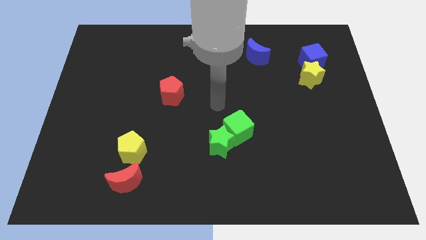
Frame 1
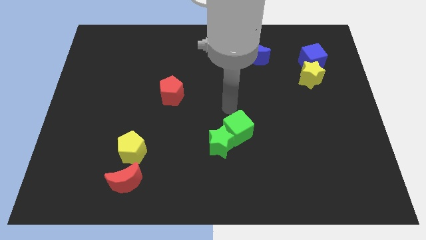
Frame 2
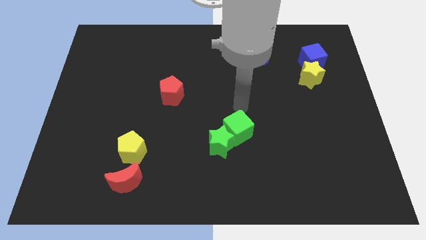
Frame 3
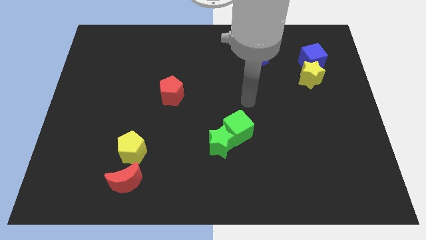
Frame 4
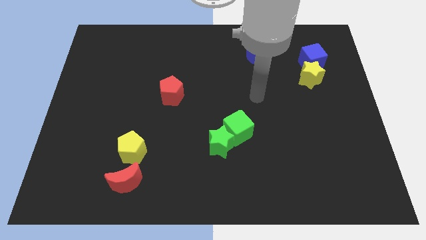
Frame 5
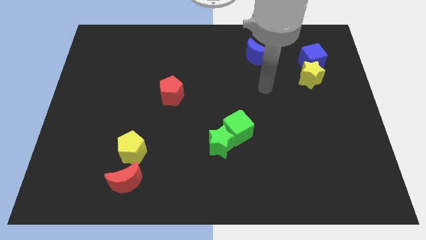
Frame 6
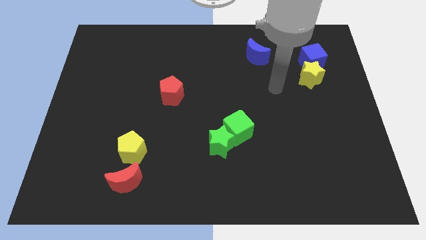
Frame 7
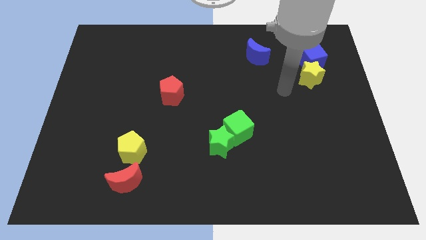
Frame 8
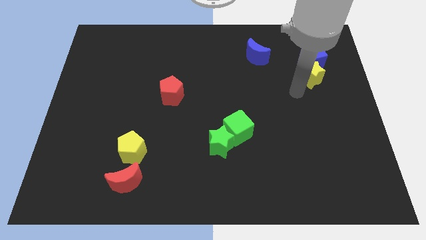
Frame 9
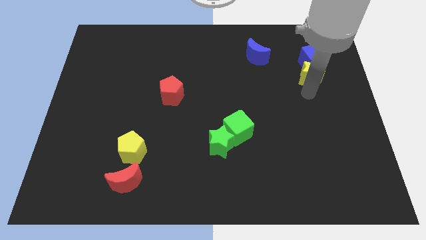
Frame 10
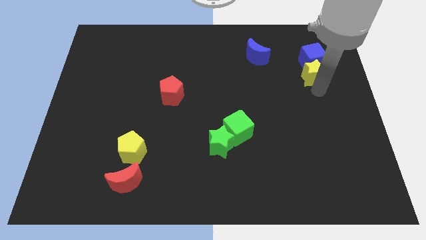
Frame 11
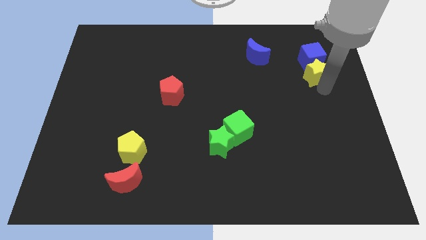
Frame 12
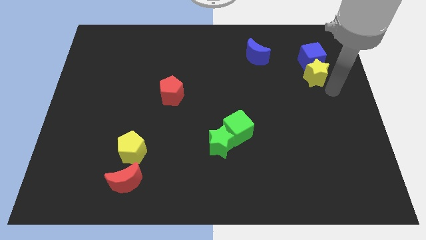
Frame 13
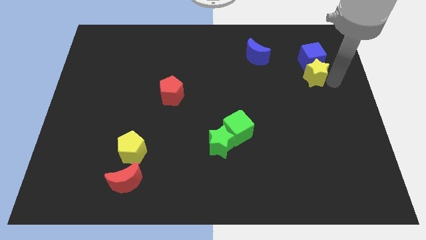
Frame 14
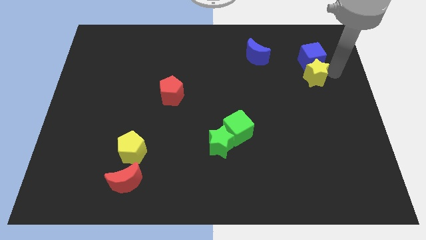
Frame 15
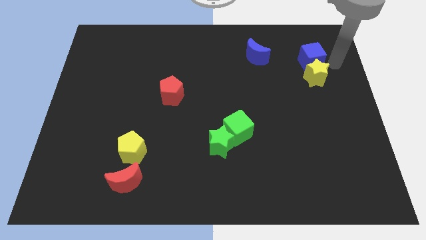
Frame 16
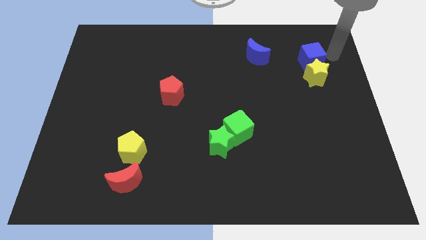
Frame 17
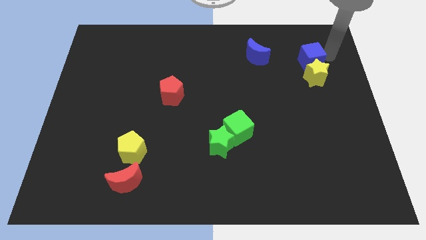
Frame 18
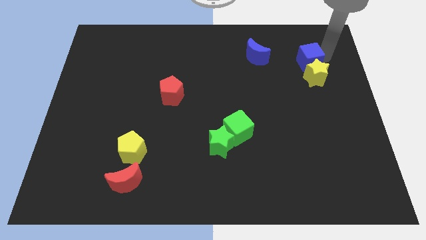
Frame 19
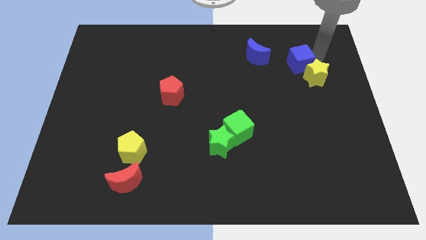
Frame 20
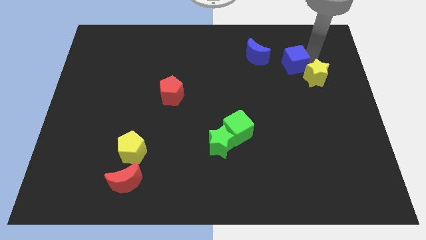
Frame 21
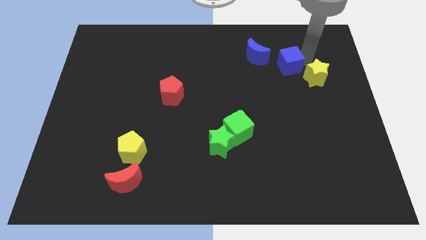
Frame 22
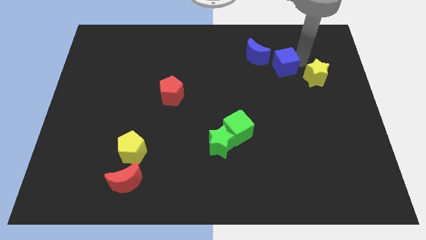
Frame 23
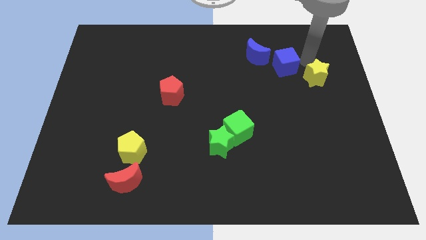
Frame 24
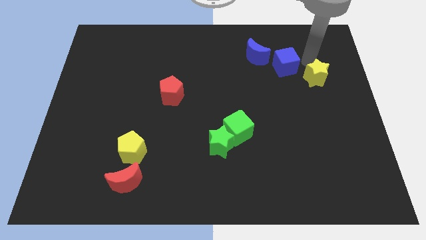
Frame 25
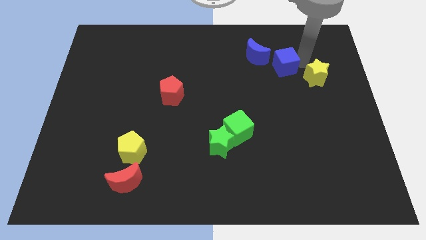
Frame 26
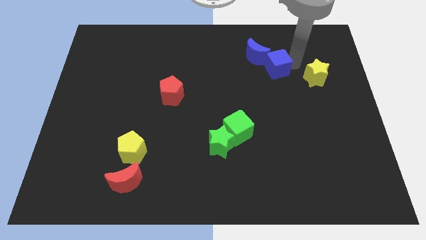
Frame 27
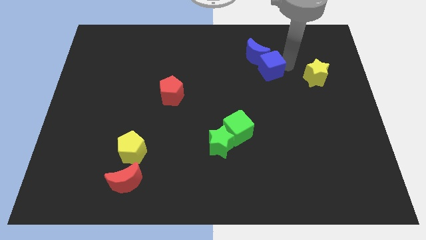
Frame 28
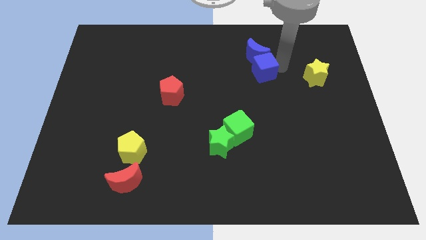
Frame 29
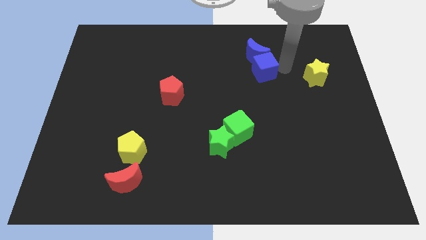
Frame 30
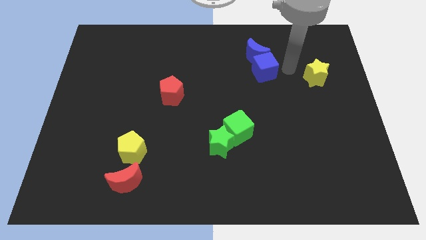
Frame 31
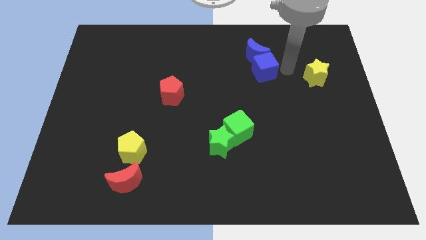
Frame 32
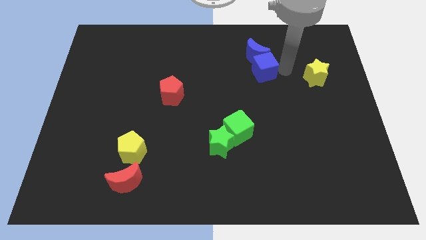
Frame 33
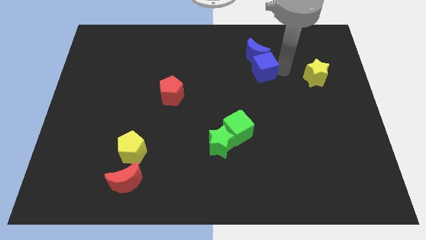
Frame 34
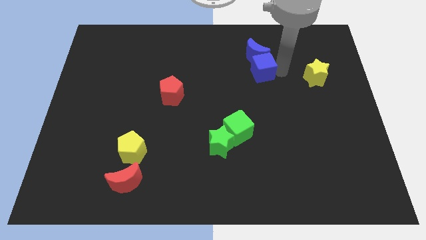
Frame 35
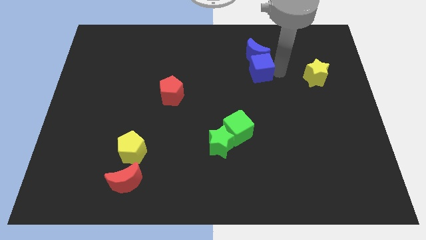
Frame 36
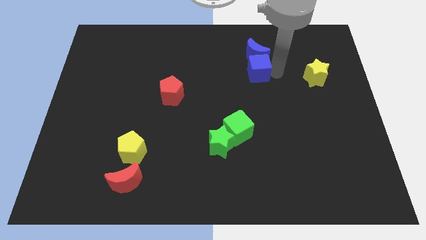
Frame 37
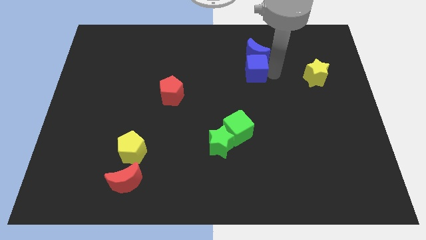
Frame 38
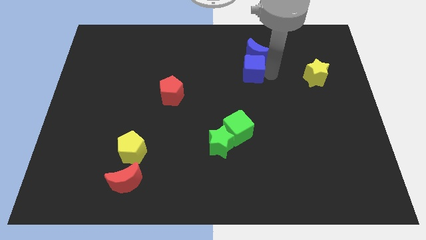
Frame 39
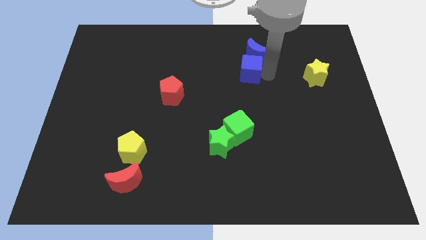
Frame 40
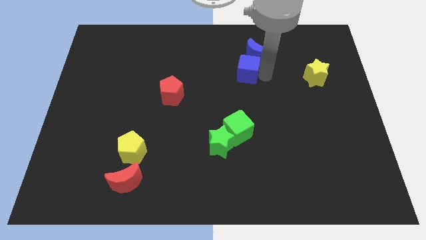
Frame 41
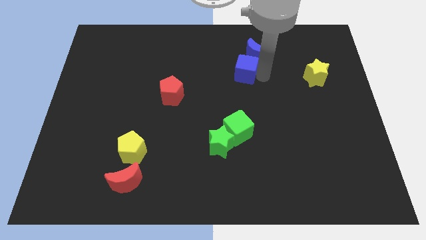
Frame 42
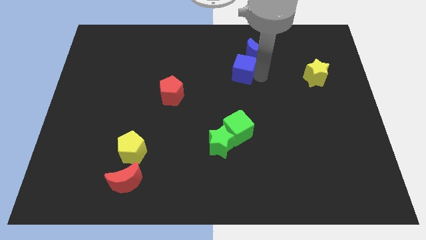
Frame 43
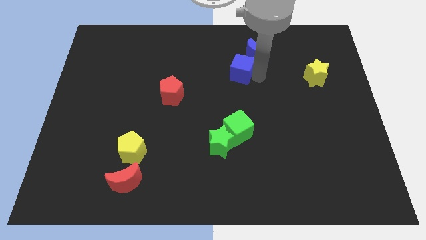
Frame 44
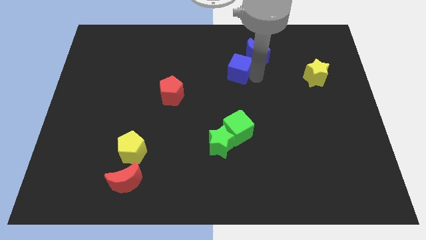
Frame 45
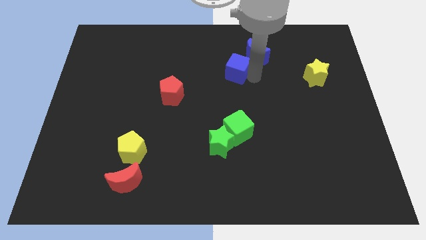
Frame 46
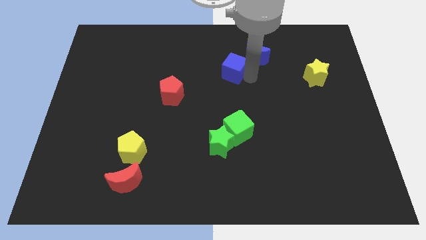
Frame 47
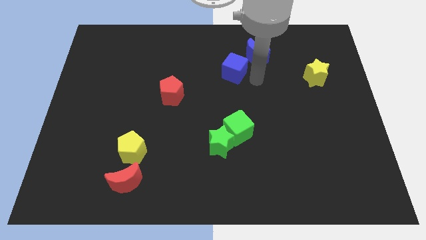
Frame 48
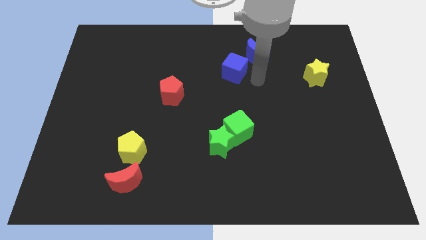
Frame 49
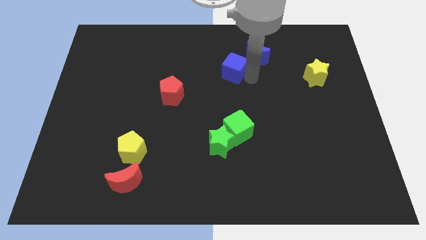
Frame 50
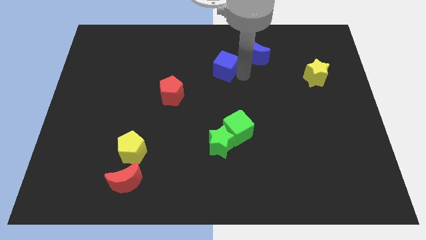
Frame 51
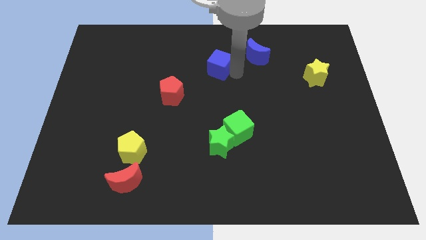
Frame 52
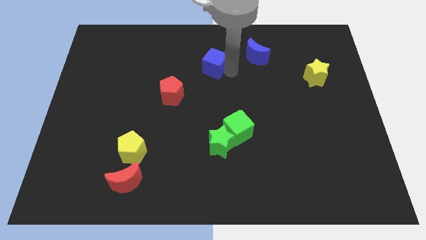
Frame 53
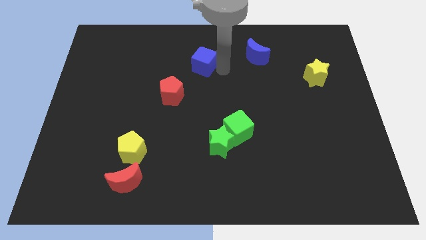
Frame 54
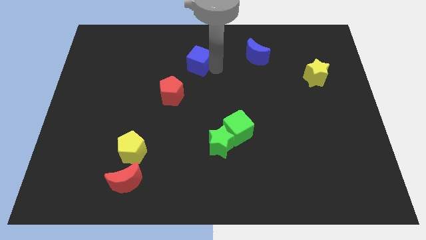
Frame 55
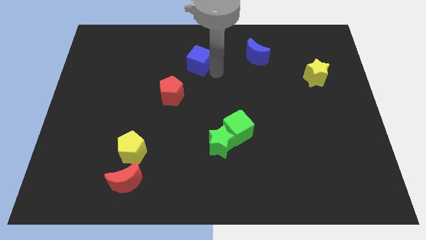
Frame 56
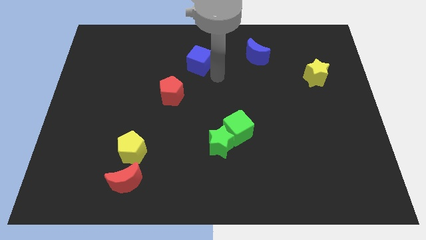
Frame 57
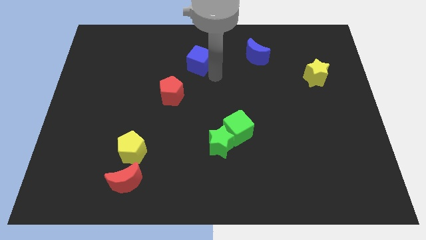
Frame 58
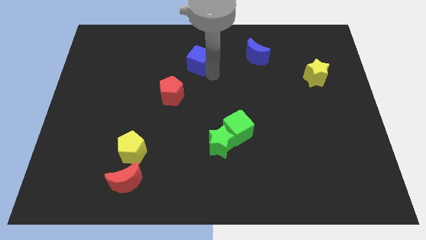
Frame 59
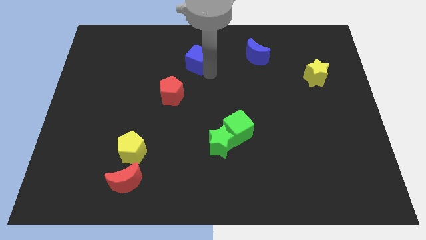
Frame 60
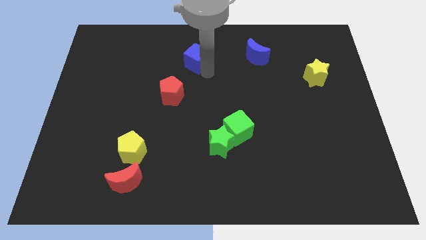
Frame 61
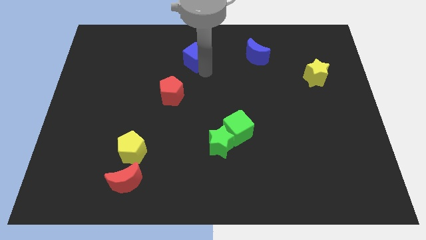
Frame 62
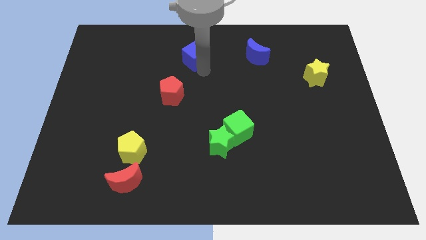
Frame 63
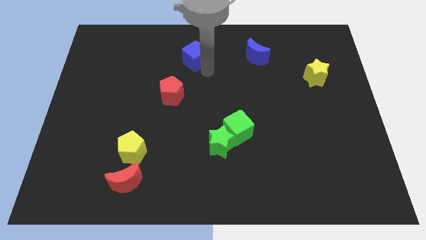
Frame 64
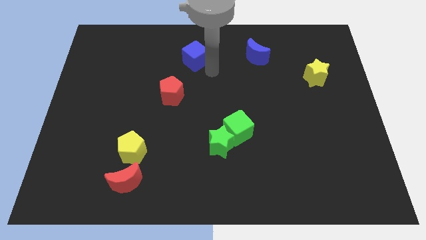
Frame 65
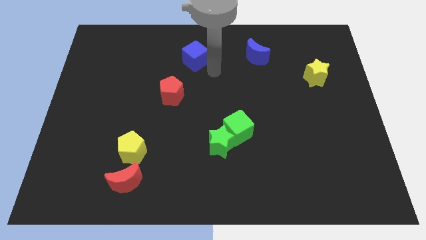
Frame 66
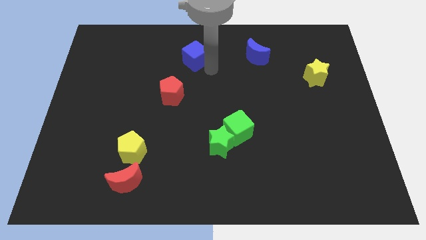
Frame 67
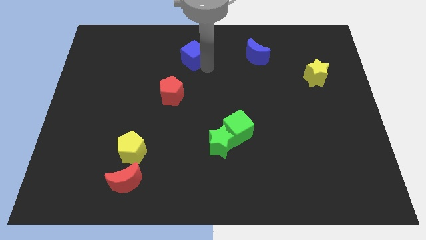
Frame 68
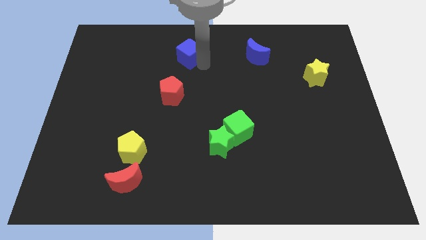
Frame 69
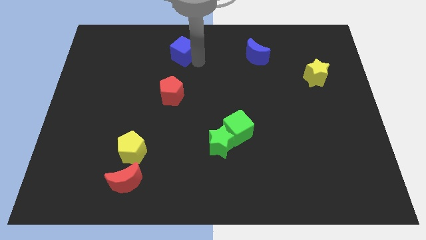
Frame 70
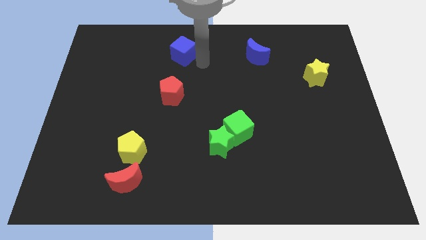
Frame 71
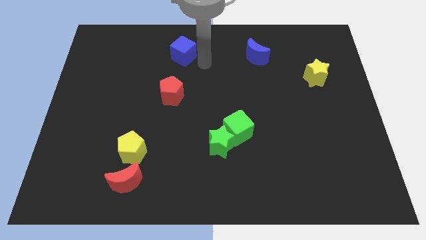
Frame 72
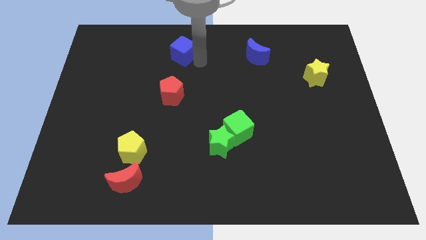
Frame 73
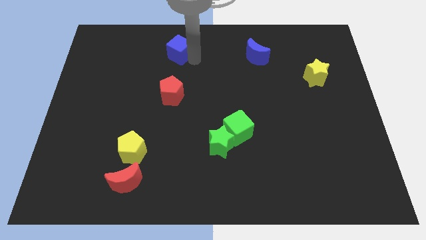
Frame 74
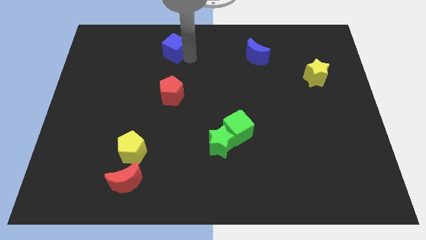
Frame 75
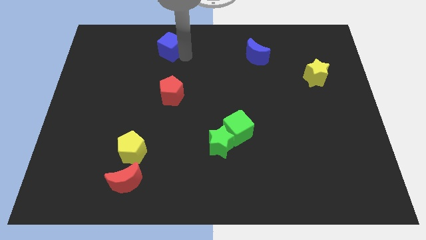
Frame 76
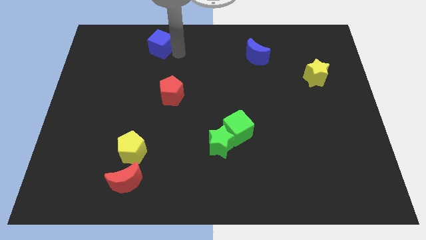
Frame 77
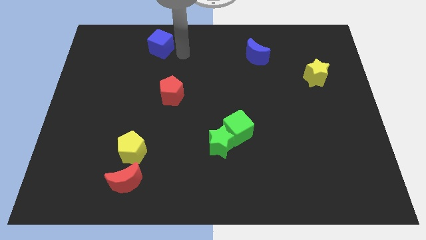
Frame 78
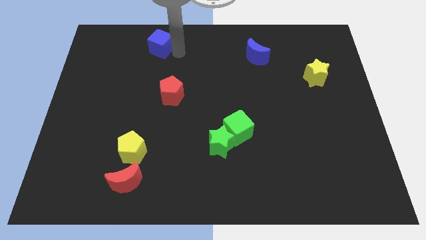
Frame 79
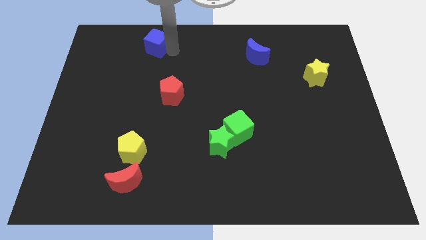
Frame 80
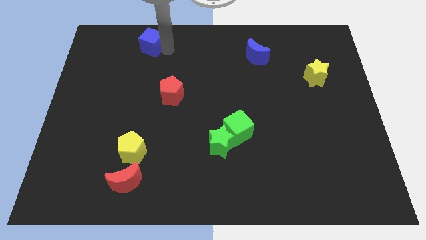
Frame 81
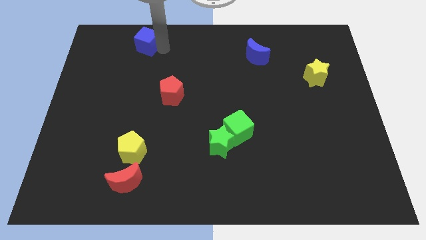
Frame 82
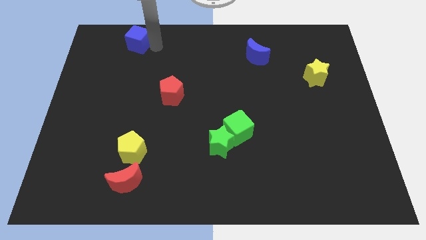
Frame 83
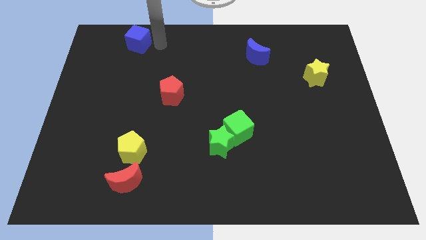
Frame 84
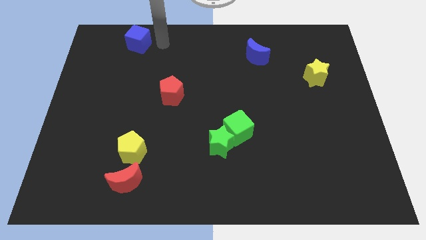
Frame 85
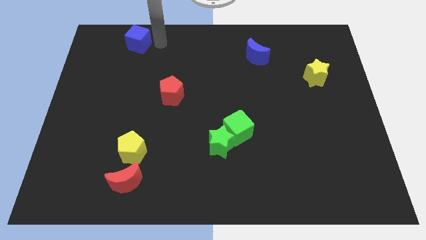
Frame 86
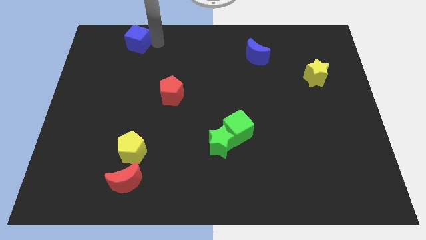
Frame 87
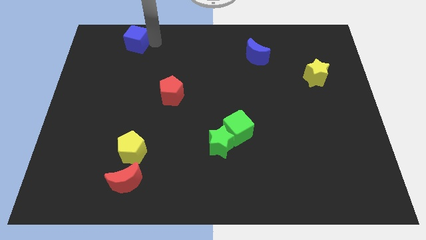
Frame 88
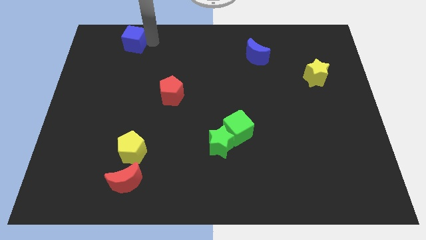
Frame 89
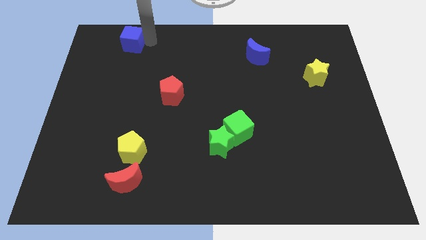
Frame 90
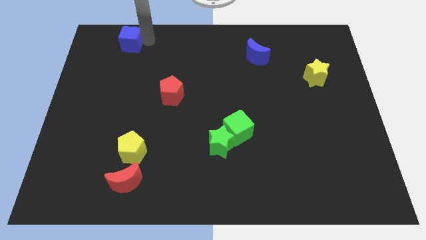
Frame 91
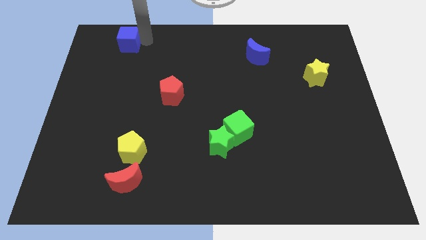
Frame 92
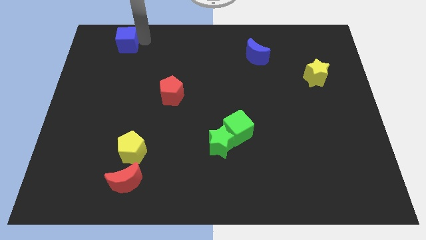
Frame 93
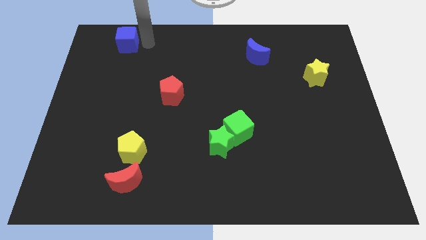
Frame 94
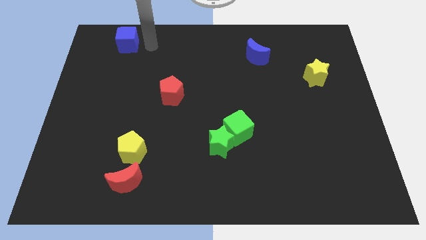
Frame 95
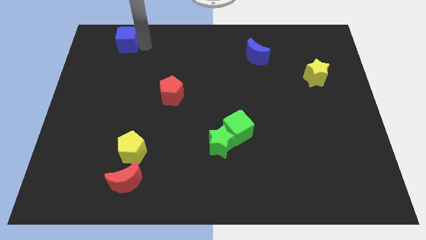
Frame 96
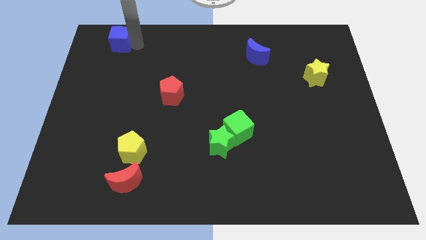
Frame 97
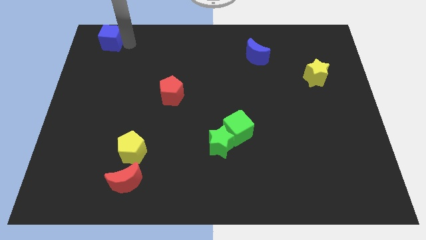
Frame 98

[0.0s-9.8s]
move the blue cube to the upper left corner
